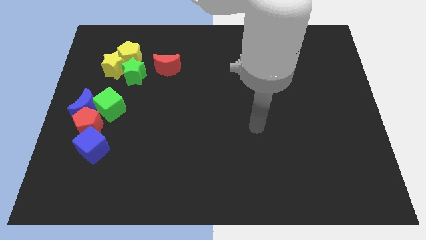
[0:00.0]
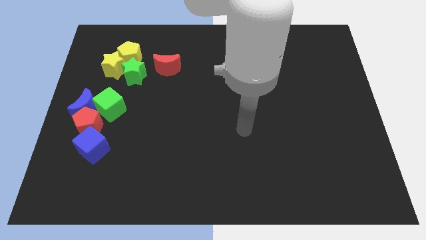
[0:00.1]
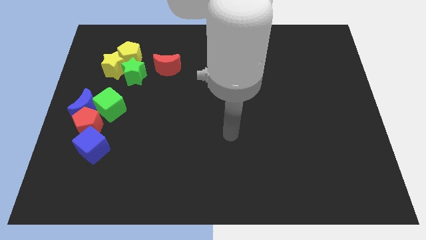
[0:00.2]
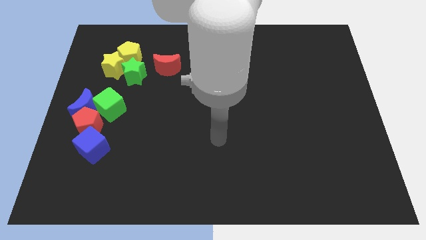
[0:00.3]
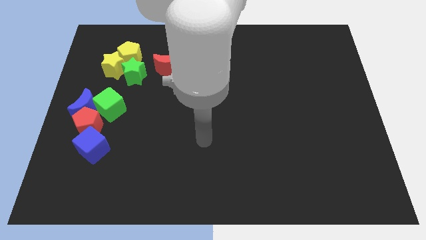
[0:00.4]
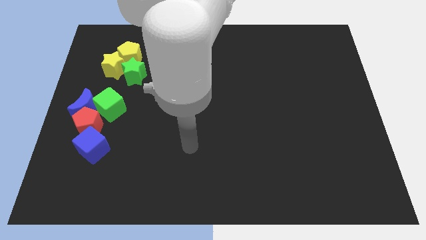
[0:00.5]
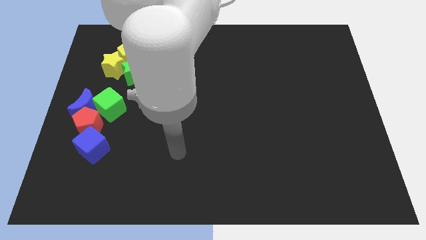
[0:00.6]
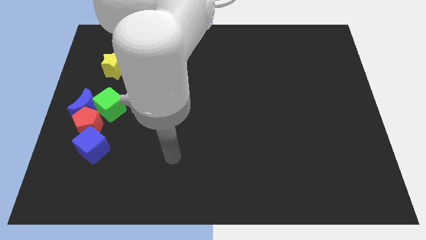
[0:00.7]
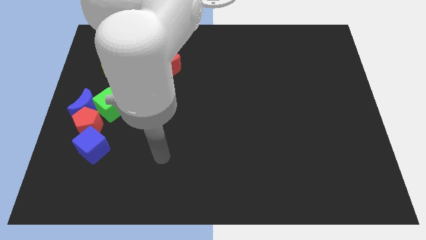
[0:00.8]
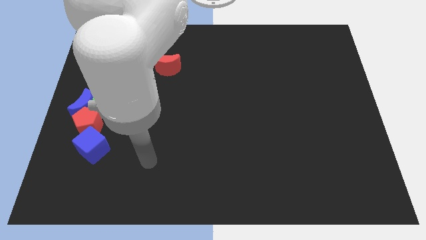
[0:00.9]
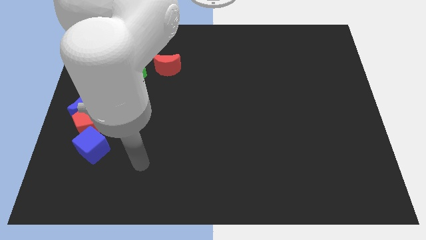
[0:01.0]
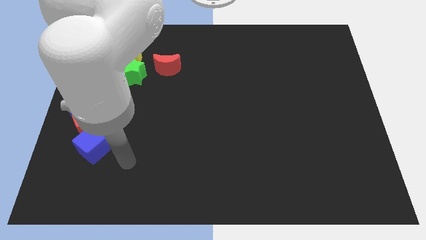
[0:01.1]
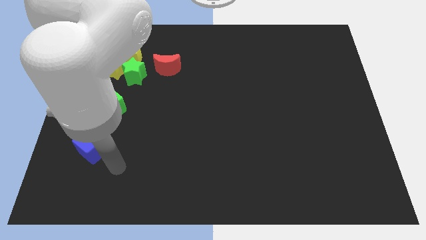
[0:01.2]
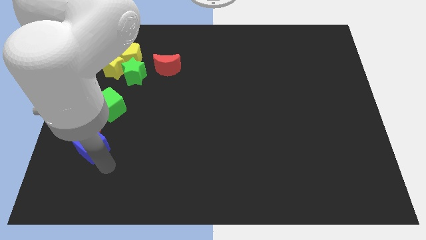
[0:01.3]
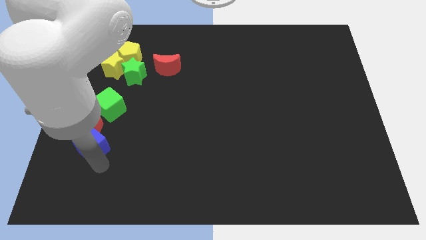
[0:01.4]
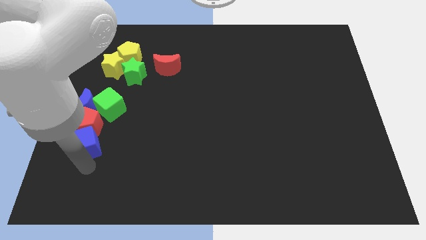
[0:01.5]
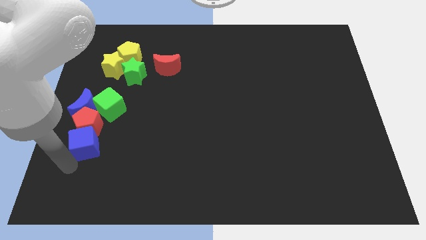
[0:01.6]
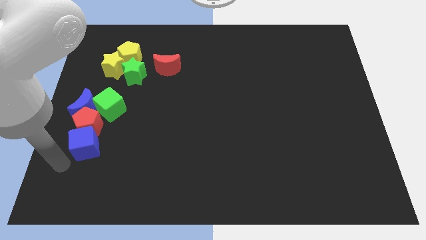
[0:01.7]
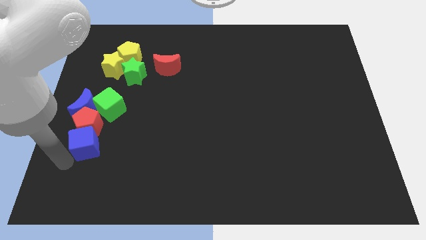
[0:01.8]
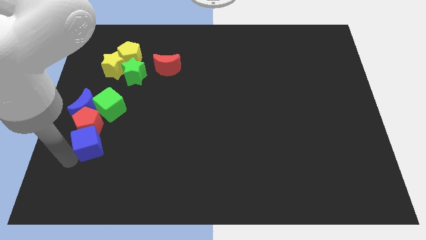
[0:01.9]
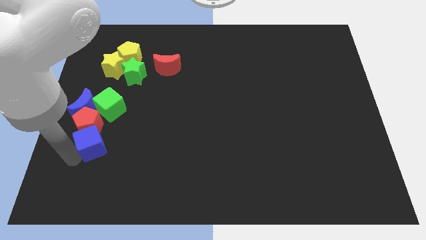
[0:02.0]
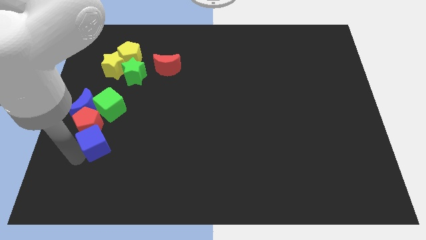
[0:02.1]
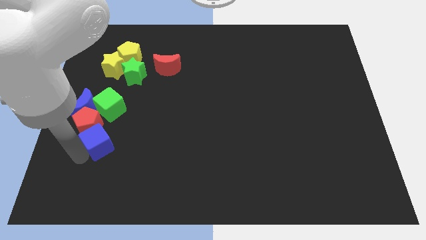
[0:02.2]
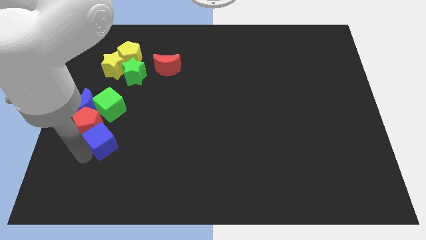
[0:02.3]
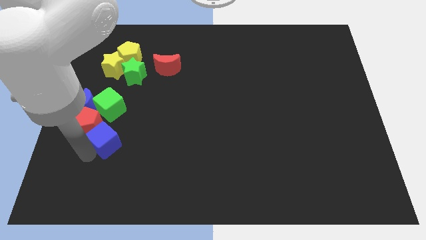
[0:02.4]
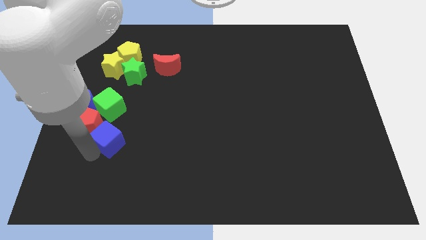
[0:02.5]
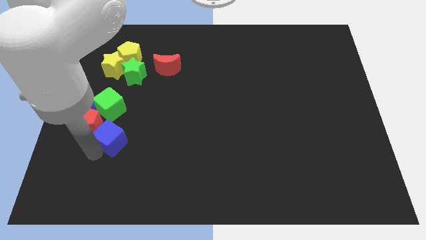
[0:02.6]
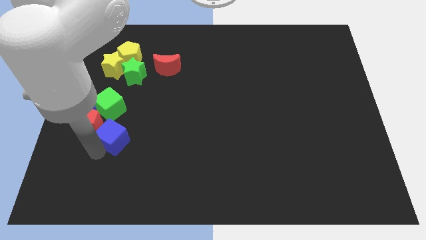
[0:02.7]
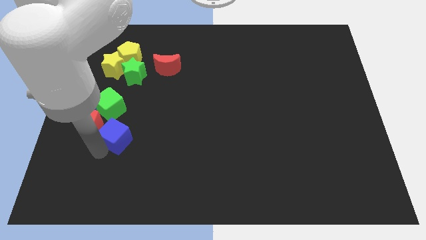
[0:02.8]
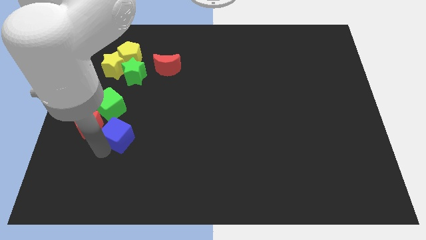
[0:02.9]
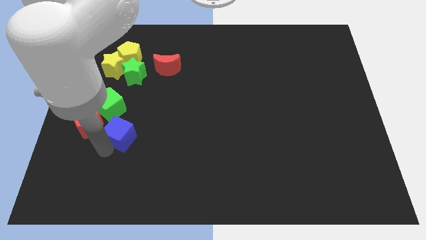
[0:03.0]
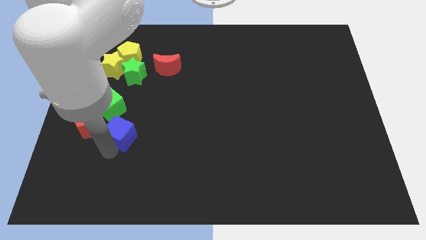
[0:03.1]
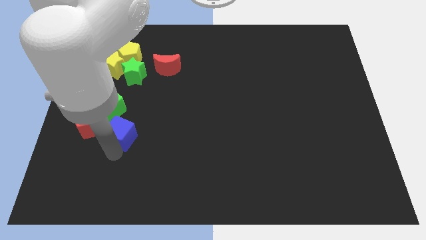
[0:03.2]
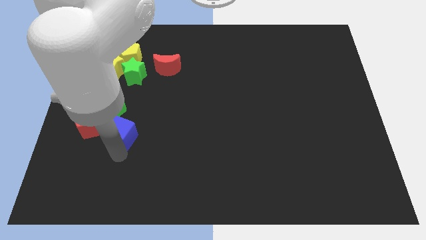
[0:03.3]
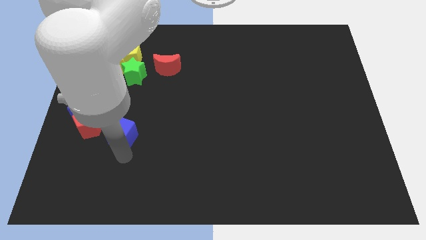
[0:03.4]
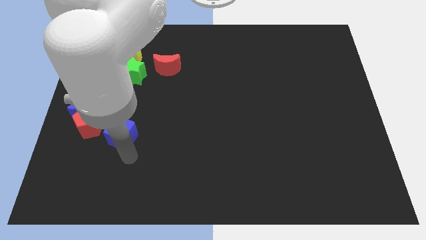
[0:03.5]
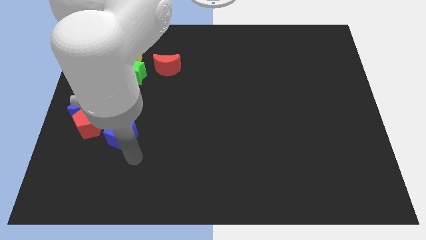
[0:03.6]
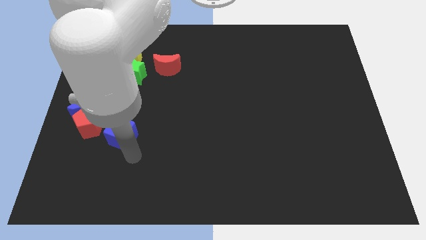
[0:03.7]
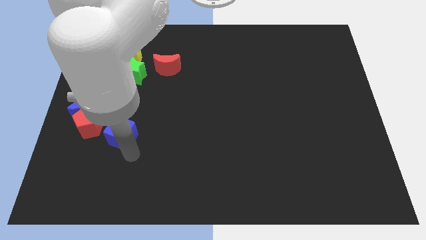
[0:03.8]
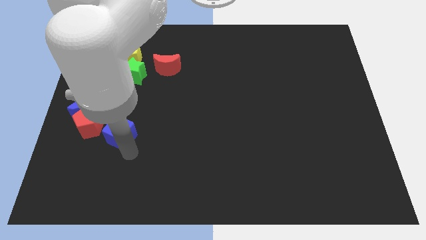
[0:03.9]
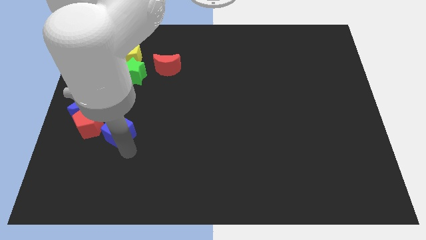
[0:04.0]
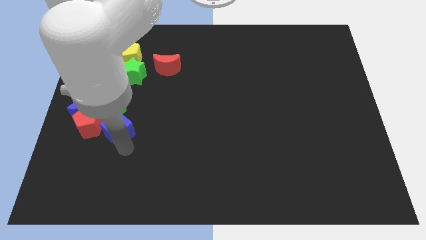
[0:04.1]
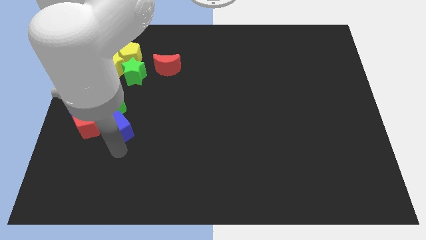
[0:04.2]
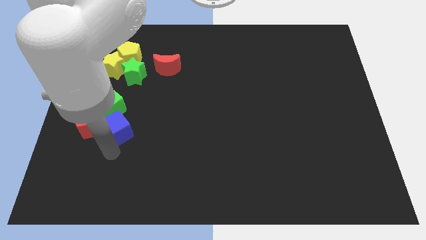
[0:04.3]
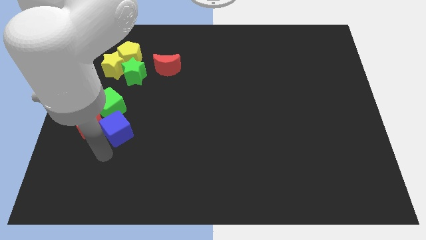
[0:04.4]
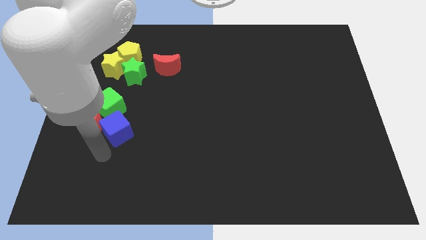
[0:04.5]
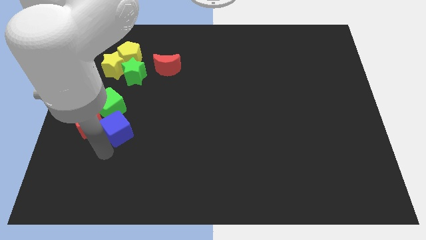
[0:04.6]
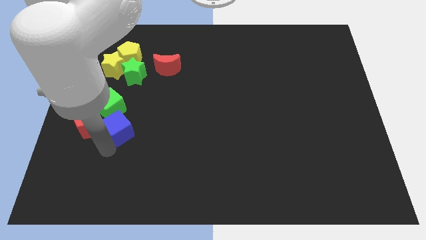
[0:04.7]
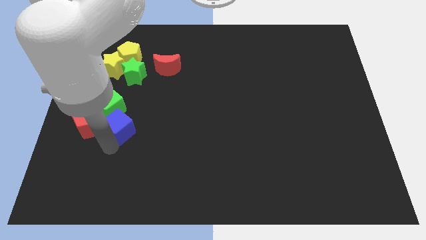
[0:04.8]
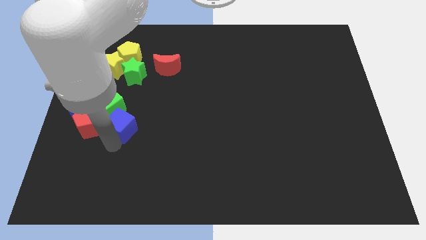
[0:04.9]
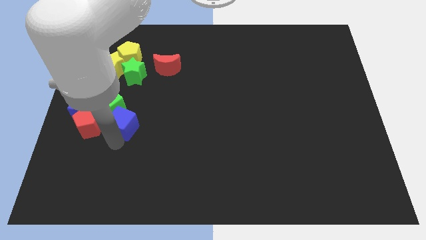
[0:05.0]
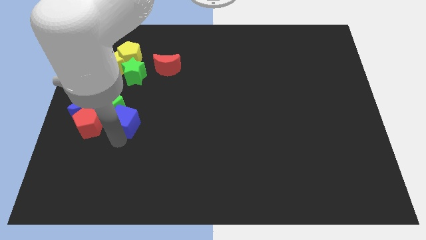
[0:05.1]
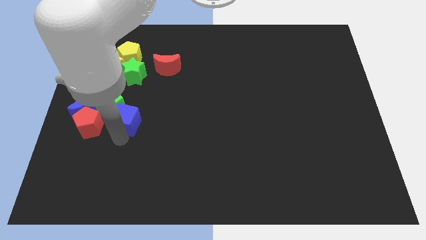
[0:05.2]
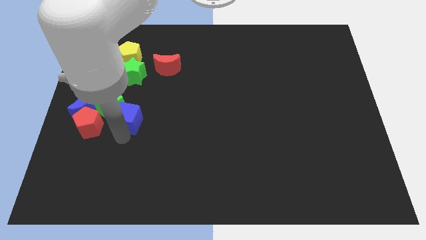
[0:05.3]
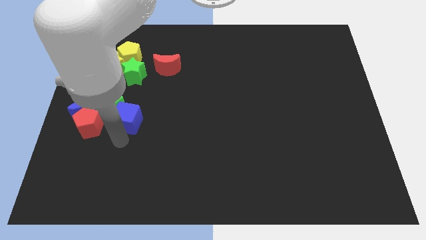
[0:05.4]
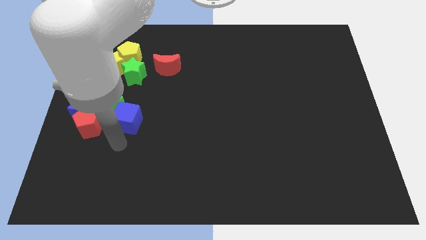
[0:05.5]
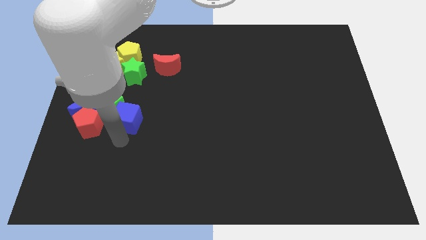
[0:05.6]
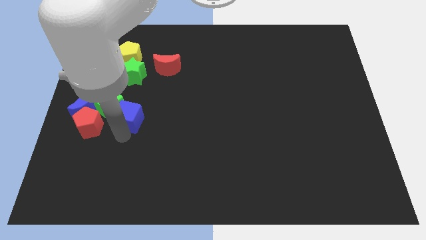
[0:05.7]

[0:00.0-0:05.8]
slide the blue cube diagonally up and to the right of the red pentagon

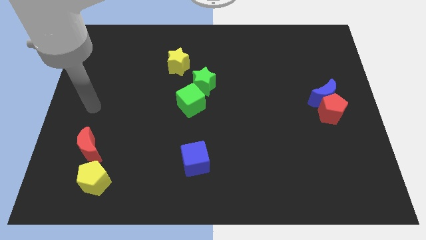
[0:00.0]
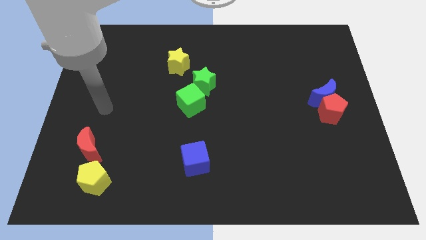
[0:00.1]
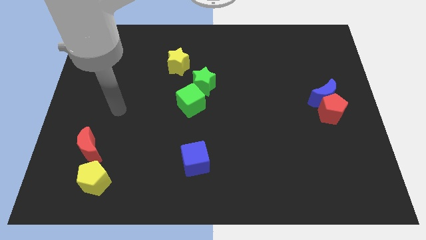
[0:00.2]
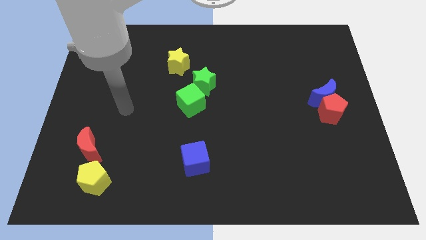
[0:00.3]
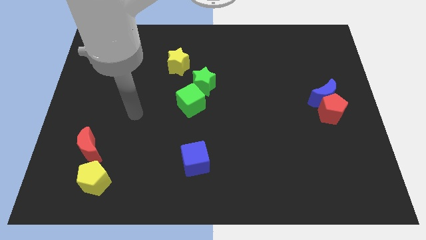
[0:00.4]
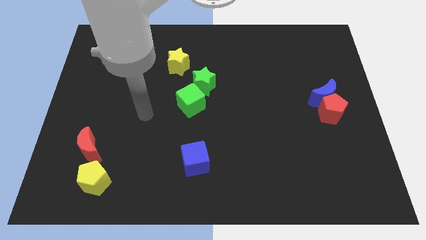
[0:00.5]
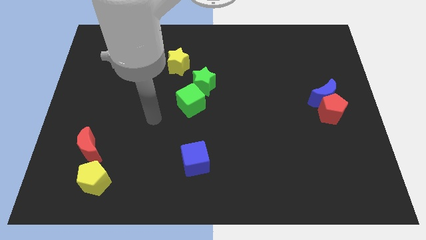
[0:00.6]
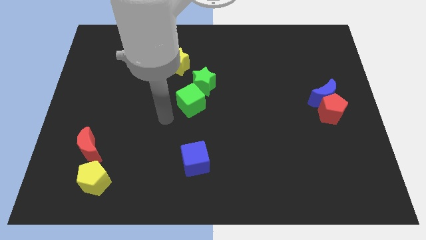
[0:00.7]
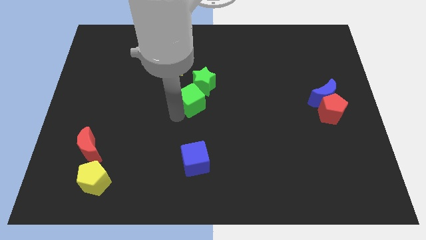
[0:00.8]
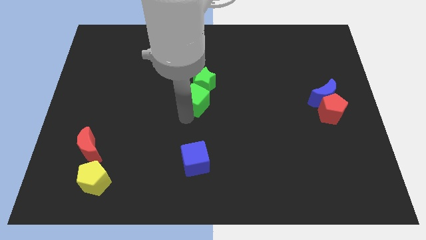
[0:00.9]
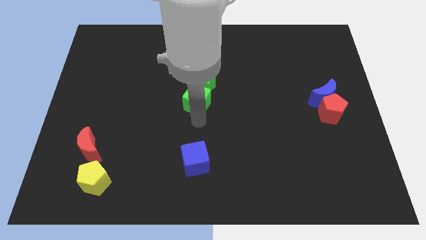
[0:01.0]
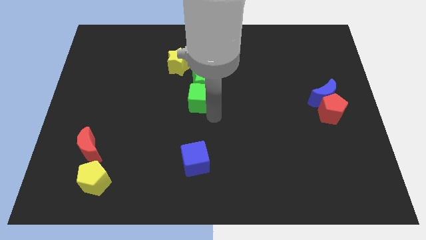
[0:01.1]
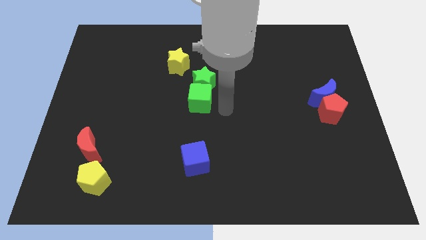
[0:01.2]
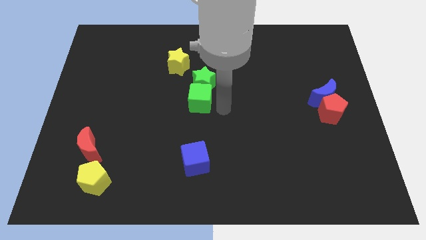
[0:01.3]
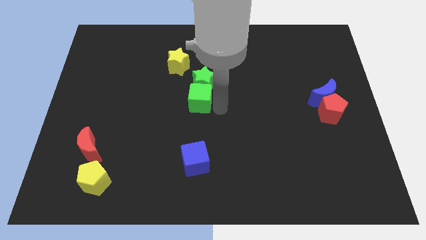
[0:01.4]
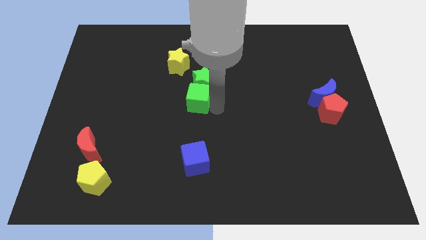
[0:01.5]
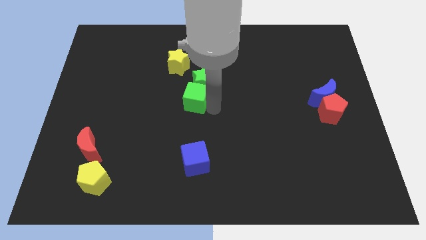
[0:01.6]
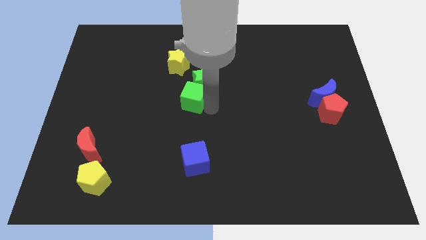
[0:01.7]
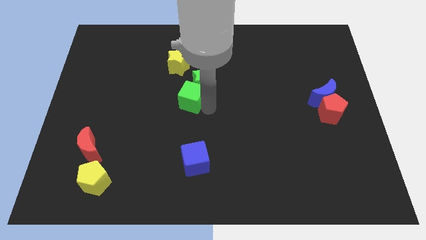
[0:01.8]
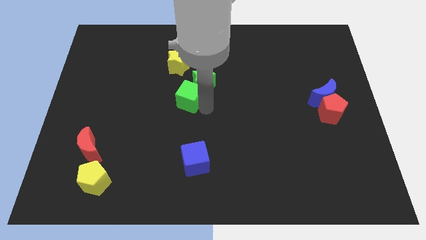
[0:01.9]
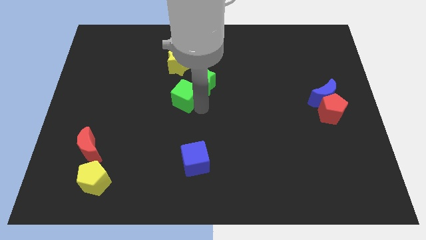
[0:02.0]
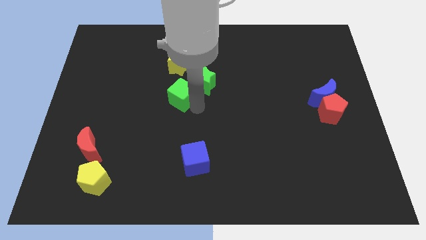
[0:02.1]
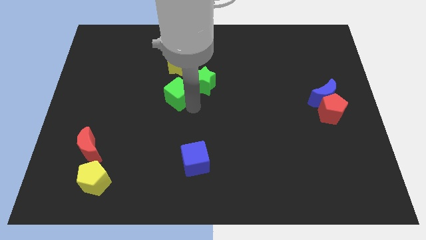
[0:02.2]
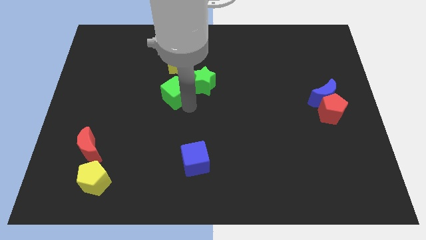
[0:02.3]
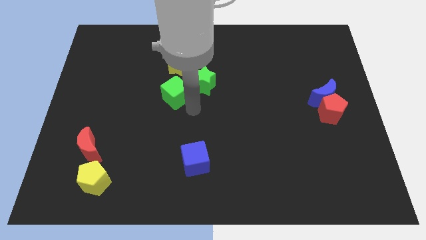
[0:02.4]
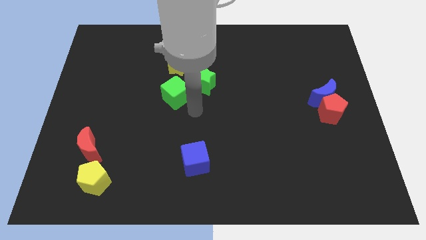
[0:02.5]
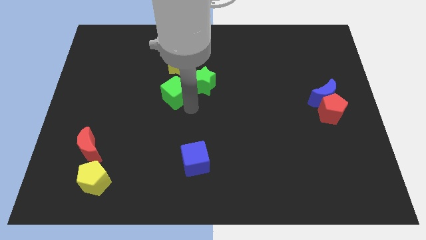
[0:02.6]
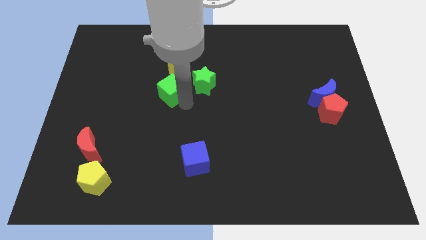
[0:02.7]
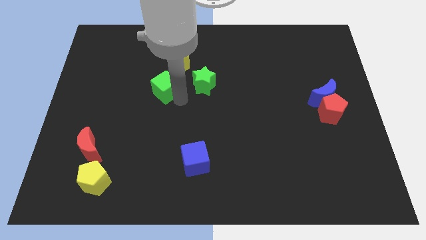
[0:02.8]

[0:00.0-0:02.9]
push the green cube diagonally down and to the left of the yellow star
